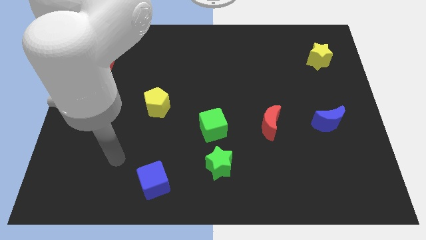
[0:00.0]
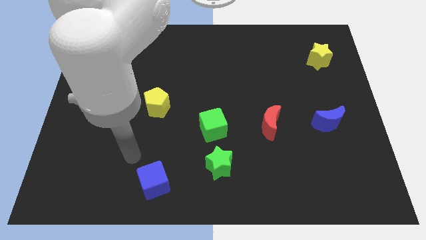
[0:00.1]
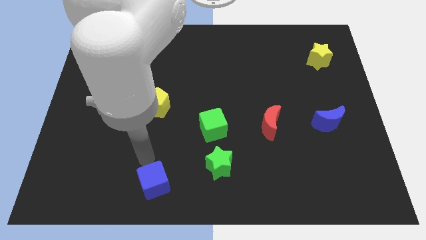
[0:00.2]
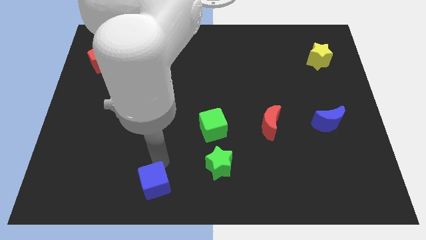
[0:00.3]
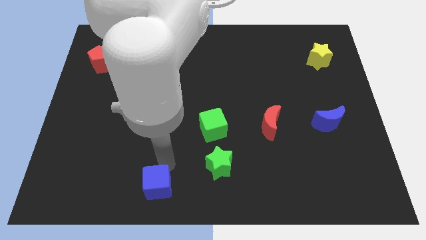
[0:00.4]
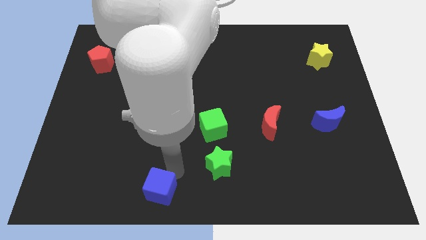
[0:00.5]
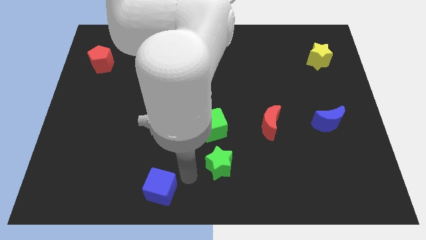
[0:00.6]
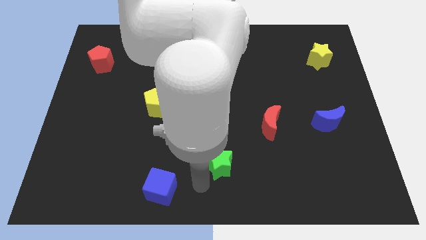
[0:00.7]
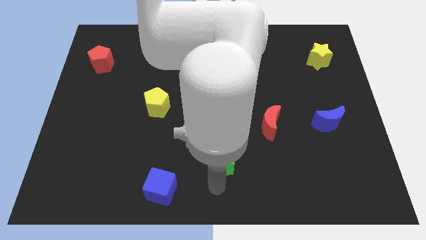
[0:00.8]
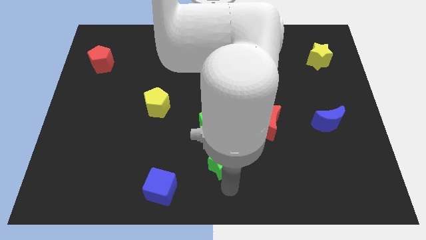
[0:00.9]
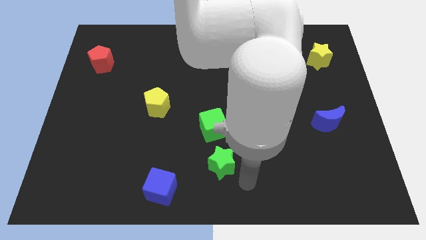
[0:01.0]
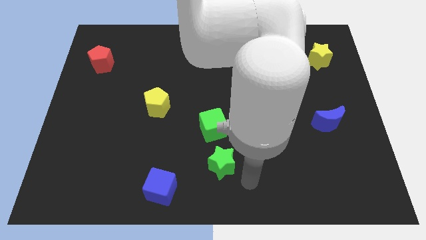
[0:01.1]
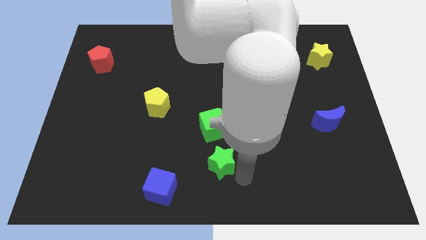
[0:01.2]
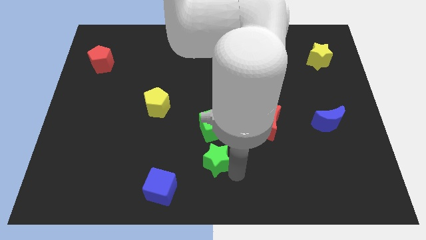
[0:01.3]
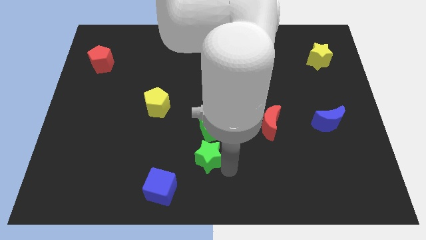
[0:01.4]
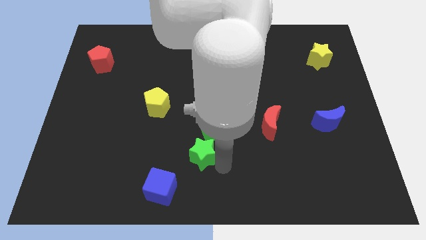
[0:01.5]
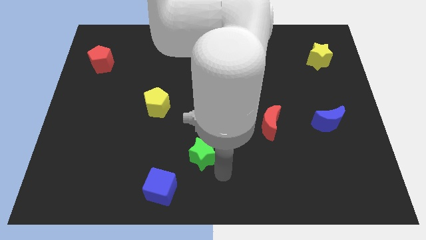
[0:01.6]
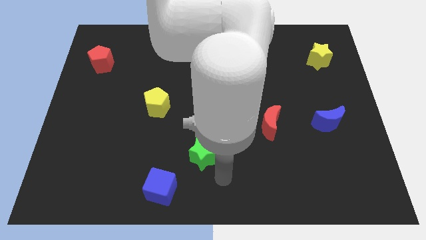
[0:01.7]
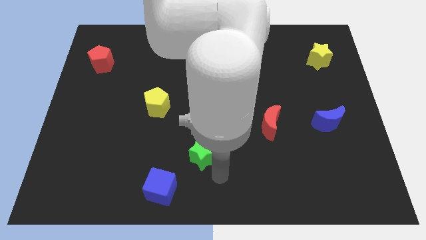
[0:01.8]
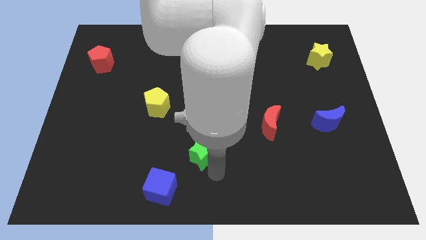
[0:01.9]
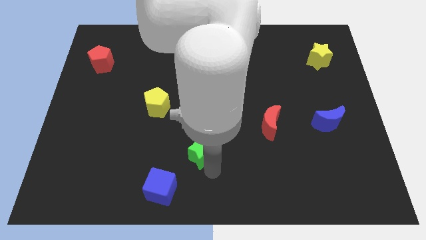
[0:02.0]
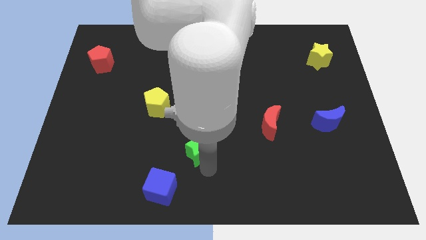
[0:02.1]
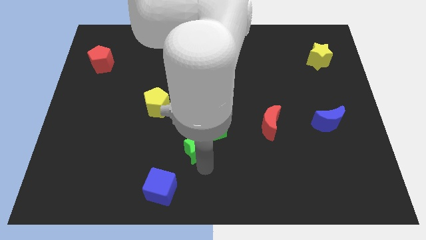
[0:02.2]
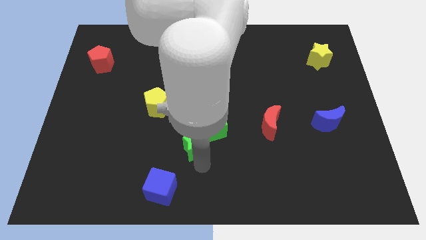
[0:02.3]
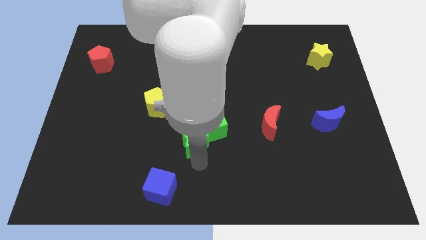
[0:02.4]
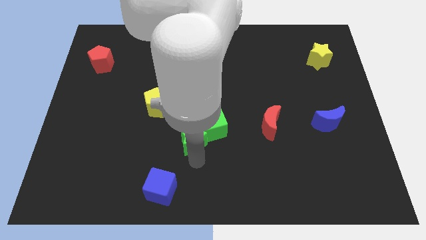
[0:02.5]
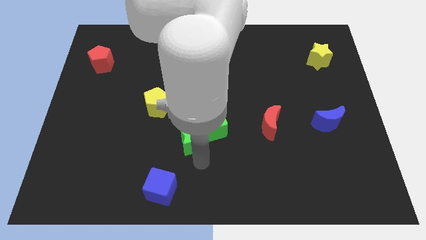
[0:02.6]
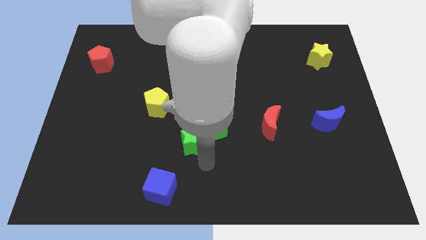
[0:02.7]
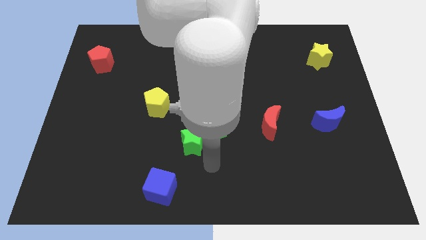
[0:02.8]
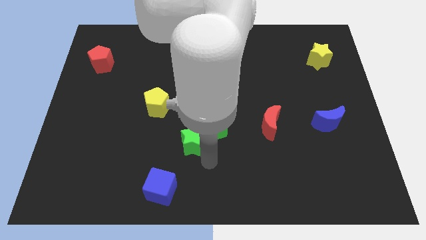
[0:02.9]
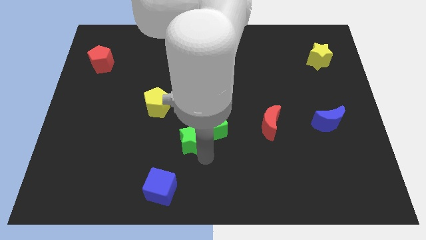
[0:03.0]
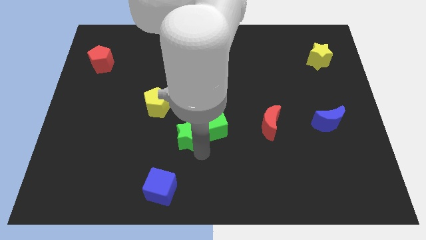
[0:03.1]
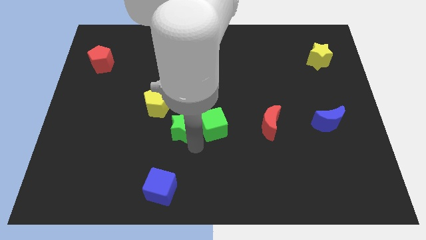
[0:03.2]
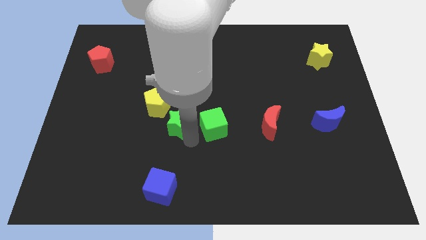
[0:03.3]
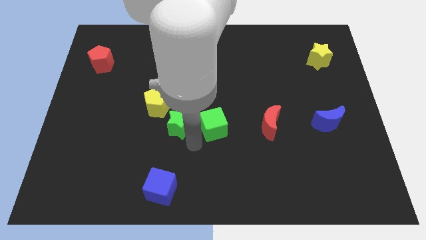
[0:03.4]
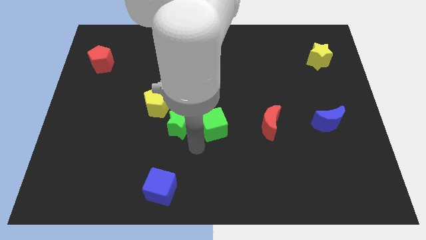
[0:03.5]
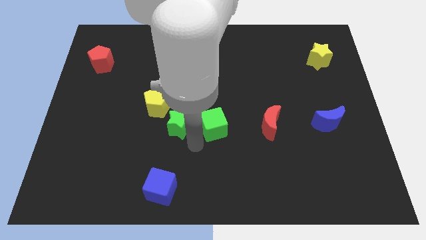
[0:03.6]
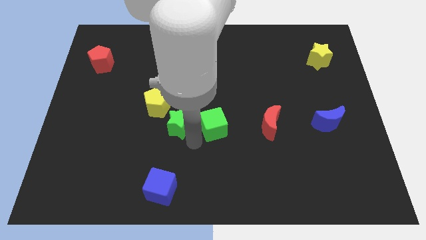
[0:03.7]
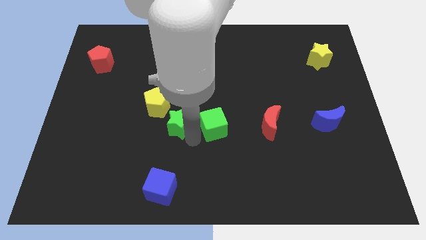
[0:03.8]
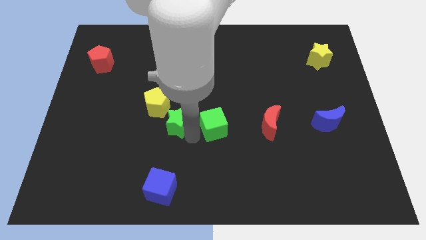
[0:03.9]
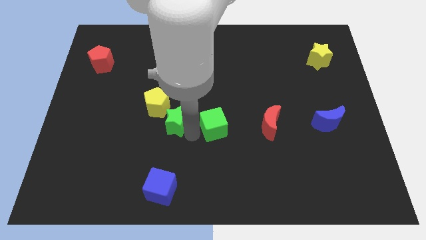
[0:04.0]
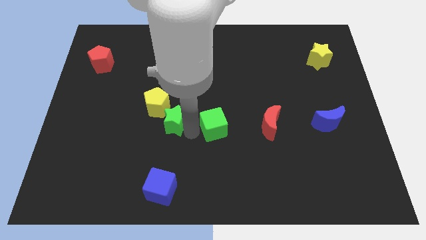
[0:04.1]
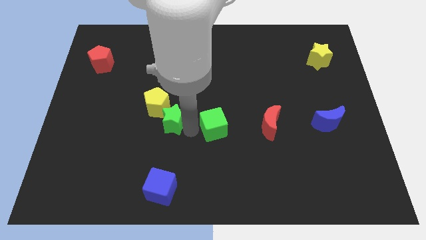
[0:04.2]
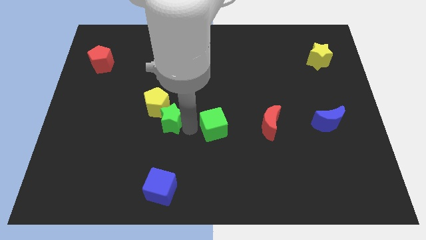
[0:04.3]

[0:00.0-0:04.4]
slide the green star towards the yellow pentagon

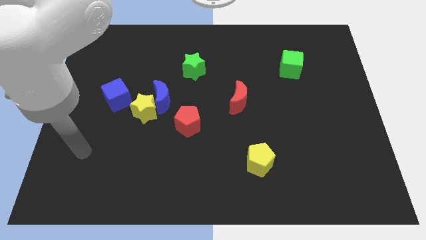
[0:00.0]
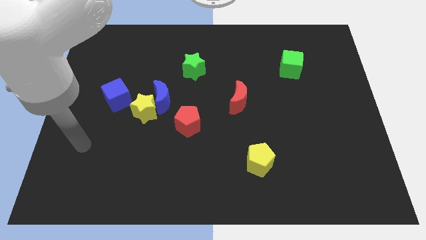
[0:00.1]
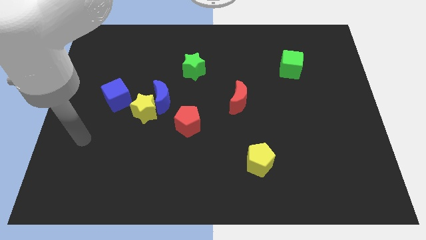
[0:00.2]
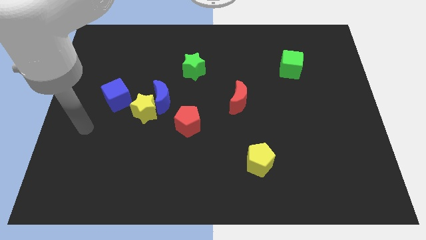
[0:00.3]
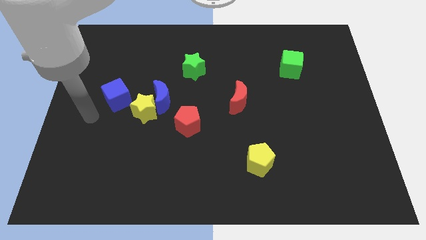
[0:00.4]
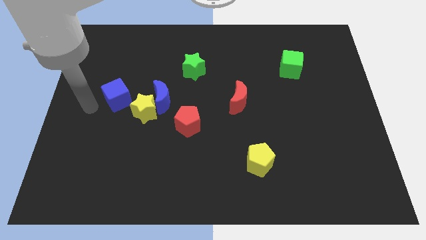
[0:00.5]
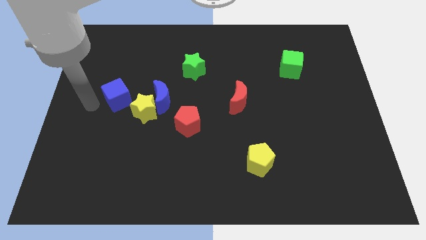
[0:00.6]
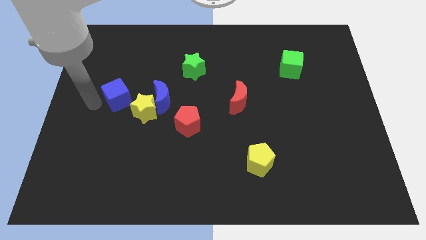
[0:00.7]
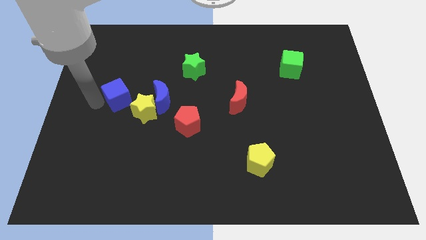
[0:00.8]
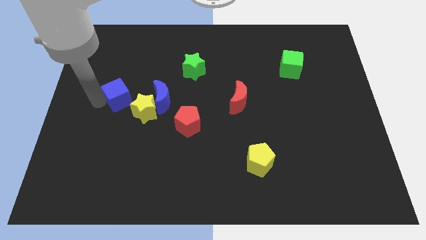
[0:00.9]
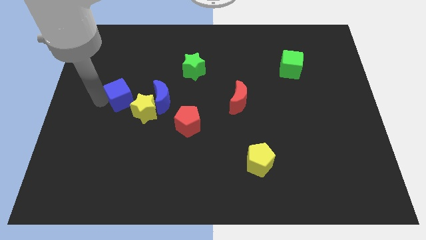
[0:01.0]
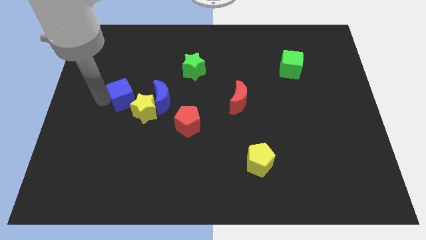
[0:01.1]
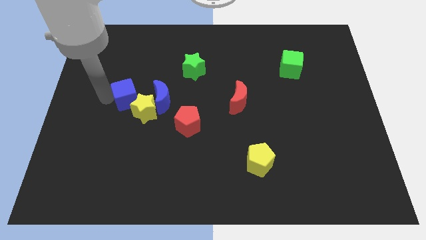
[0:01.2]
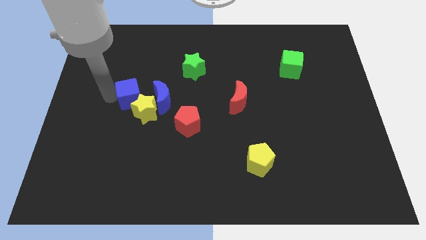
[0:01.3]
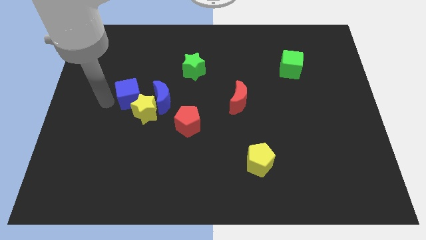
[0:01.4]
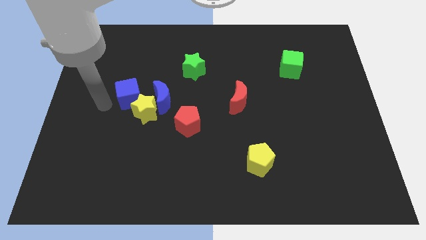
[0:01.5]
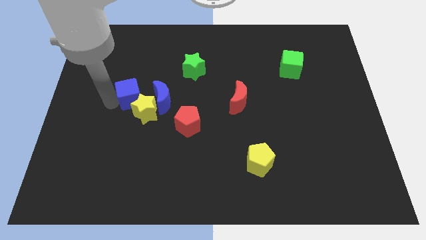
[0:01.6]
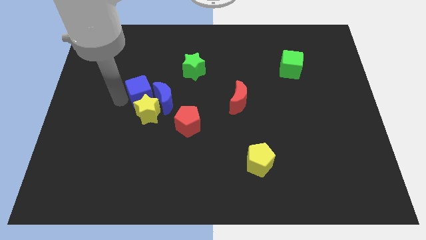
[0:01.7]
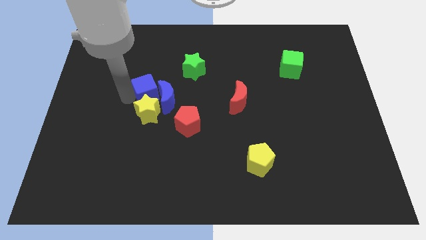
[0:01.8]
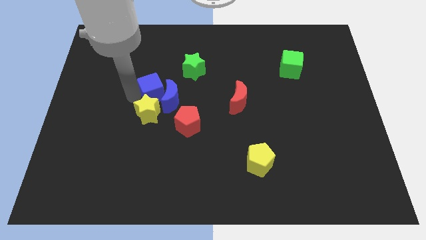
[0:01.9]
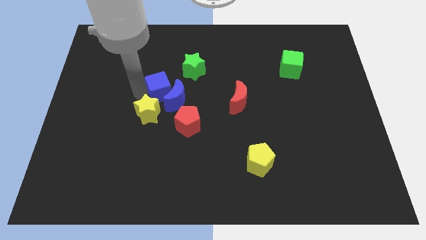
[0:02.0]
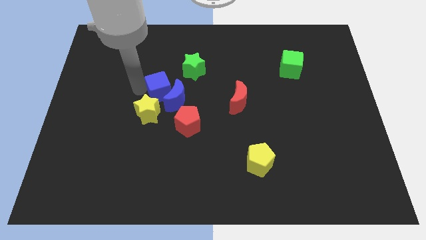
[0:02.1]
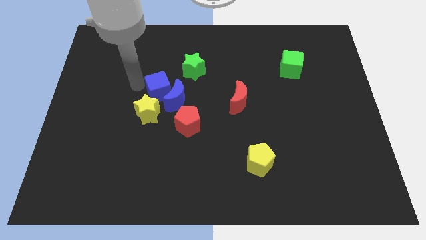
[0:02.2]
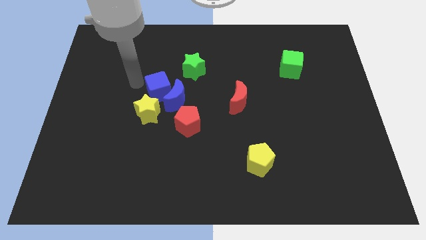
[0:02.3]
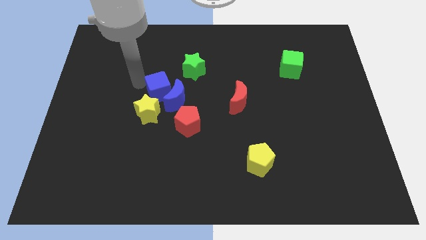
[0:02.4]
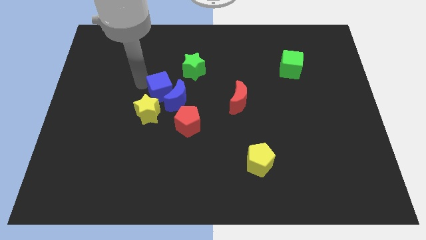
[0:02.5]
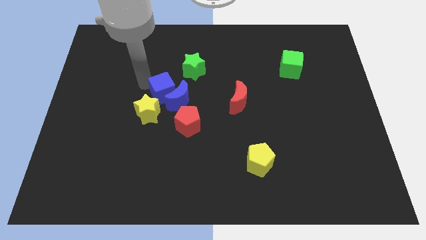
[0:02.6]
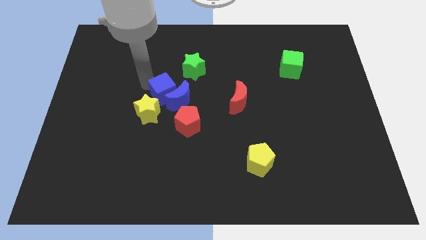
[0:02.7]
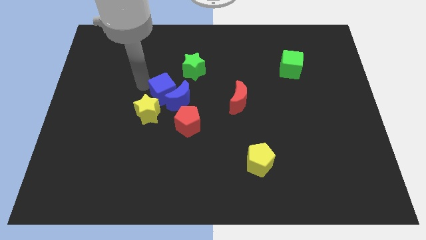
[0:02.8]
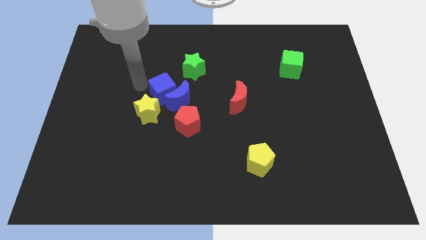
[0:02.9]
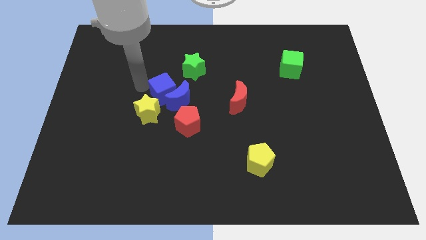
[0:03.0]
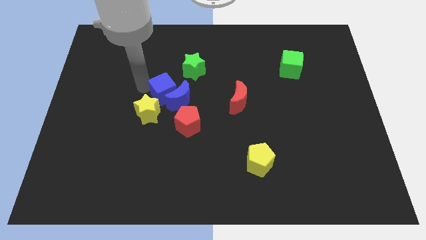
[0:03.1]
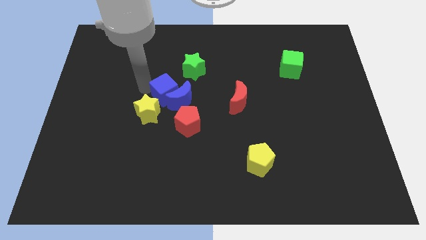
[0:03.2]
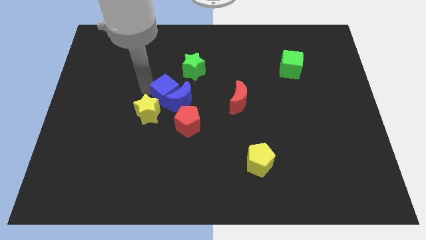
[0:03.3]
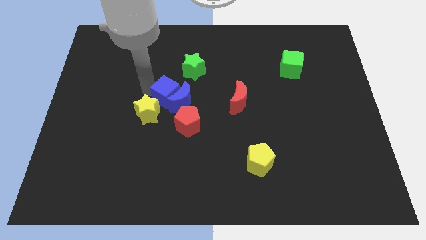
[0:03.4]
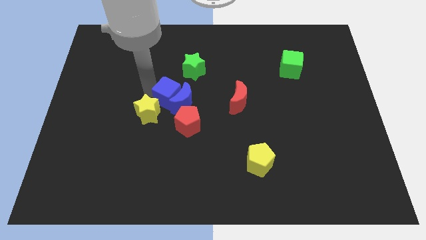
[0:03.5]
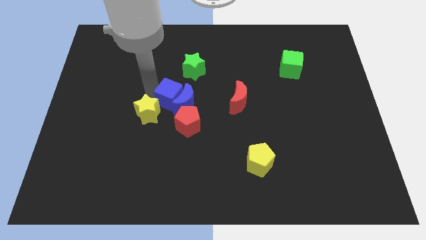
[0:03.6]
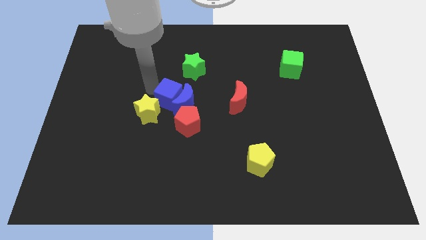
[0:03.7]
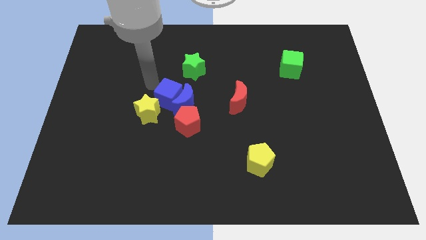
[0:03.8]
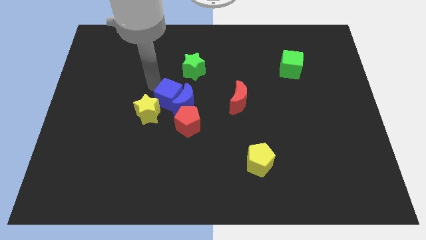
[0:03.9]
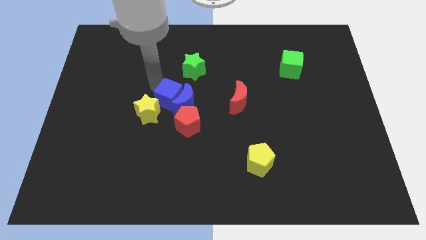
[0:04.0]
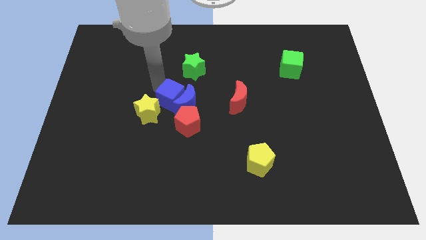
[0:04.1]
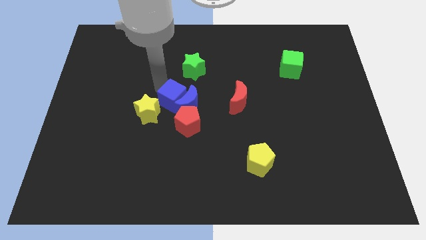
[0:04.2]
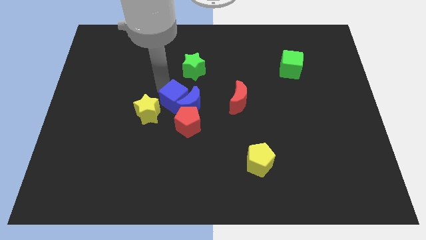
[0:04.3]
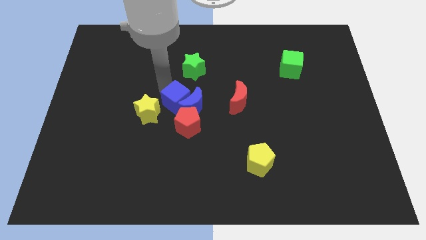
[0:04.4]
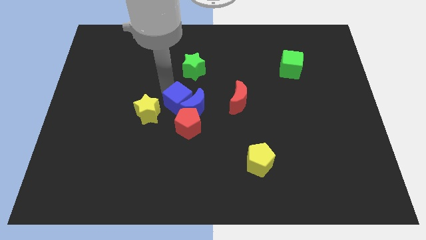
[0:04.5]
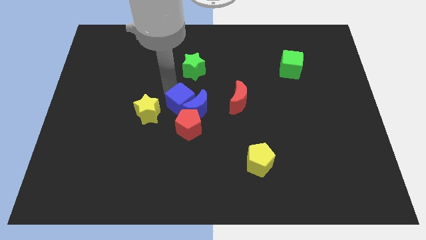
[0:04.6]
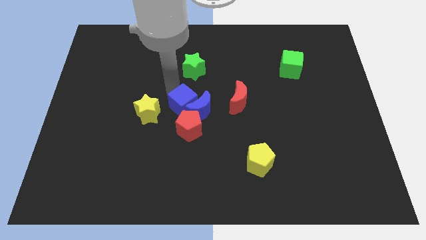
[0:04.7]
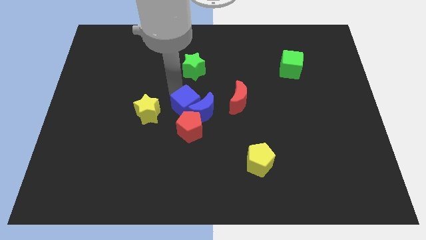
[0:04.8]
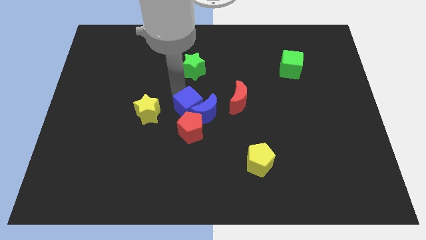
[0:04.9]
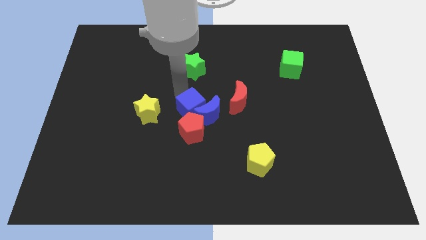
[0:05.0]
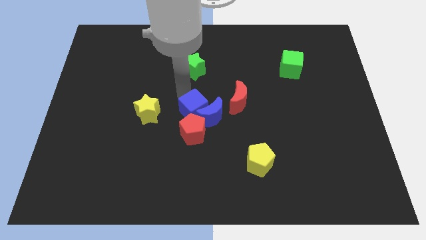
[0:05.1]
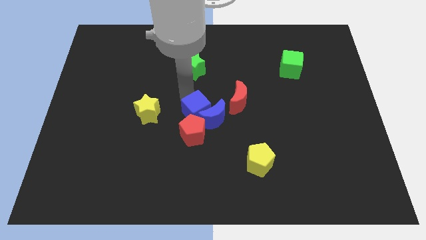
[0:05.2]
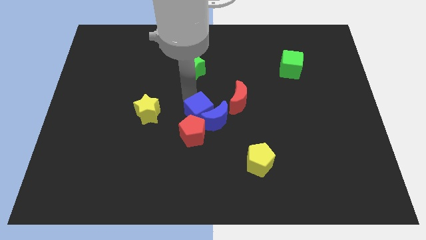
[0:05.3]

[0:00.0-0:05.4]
put the blue cube next to the red pentagon
